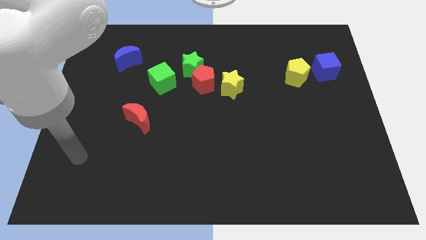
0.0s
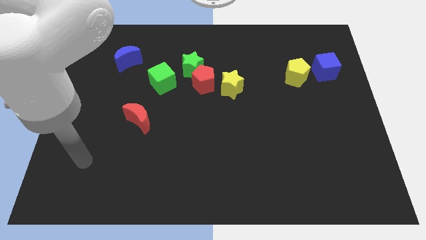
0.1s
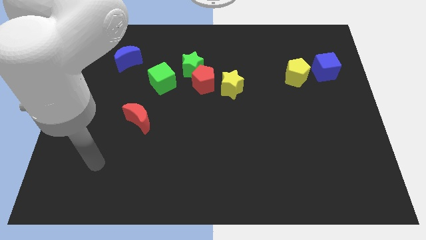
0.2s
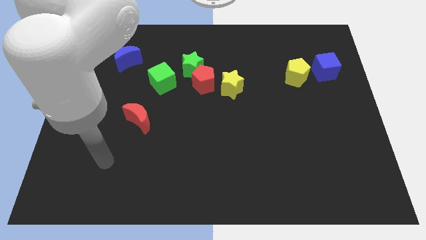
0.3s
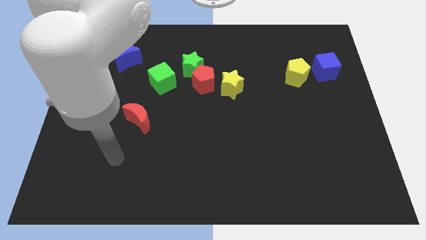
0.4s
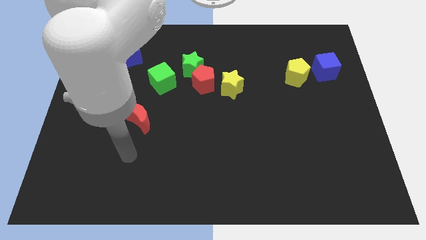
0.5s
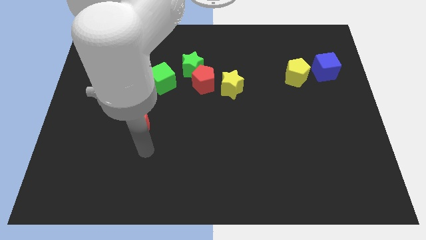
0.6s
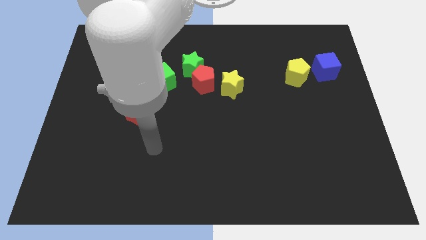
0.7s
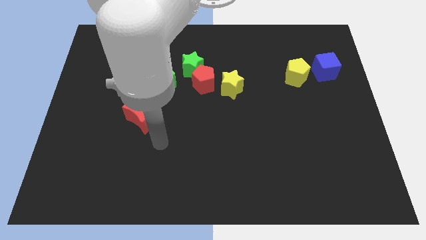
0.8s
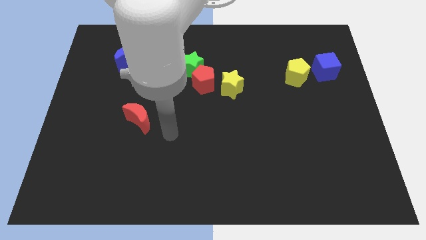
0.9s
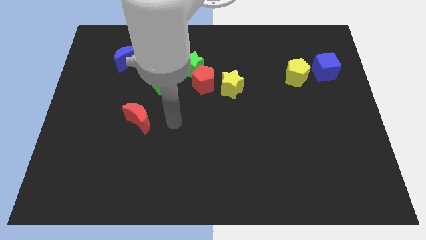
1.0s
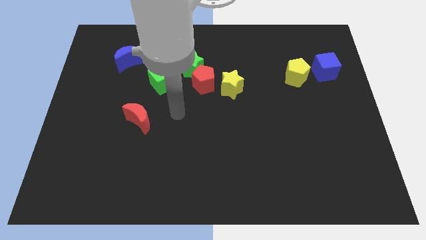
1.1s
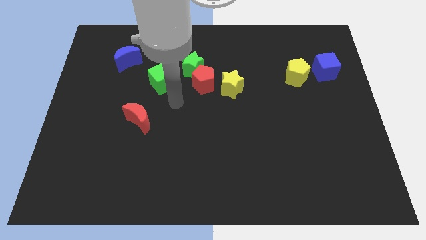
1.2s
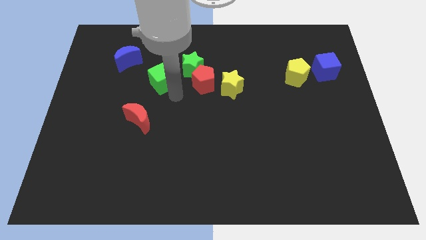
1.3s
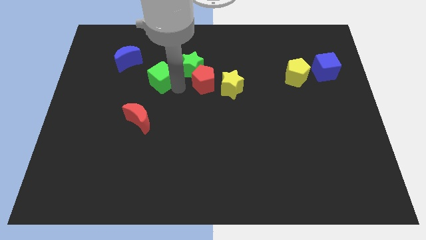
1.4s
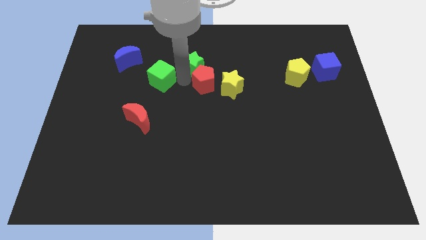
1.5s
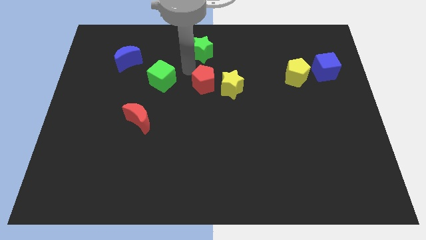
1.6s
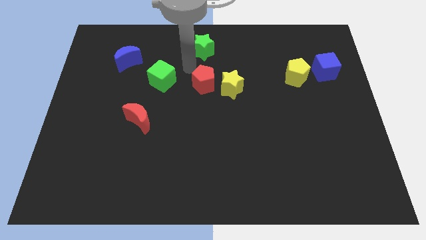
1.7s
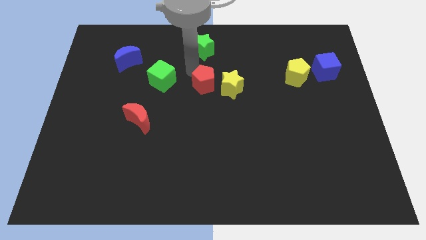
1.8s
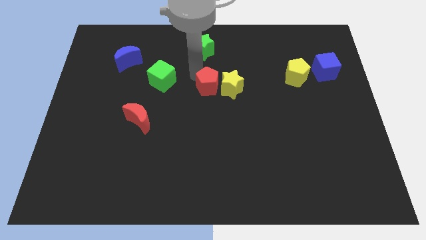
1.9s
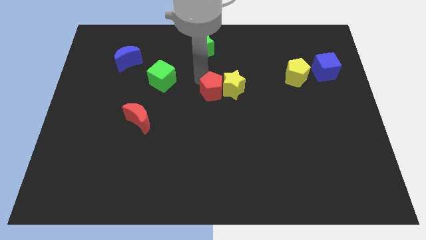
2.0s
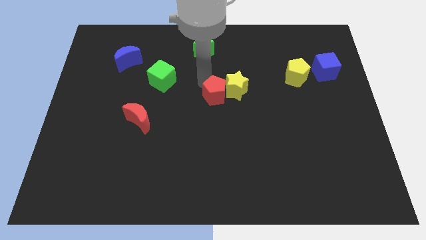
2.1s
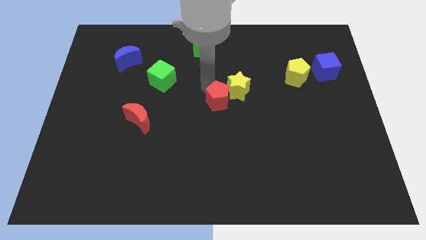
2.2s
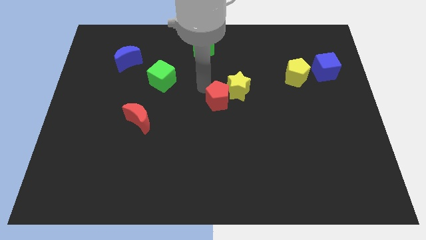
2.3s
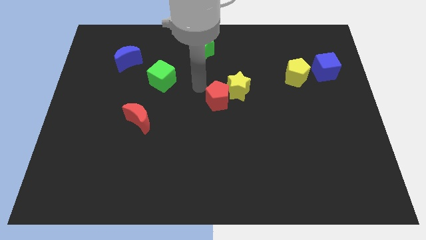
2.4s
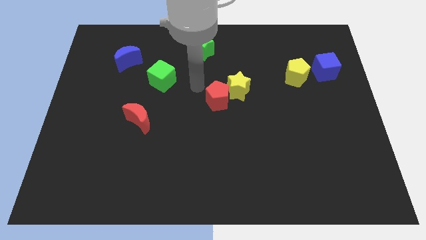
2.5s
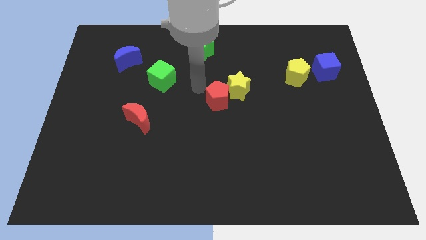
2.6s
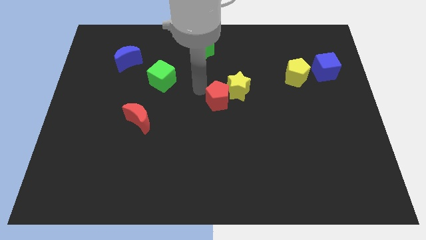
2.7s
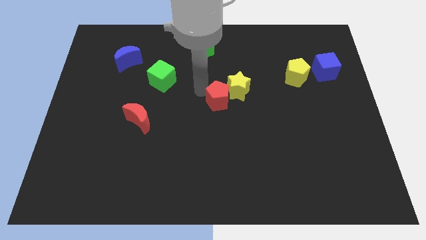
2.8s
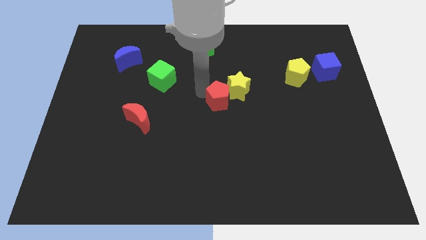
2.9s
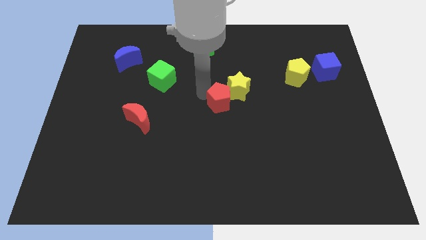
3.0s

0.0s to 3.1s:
slightly push the red pentagon down and right diagonally

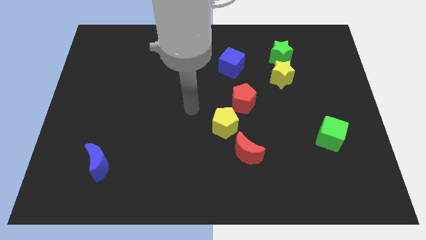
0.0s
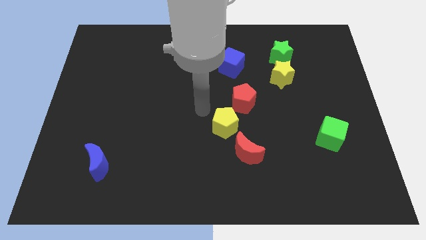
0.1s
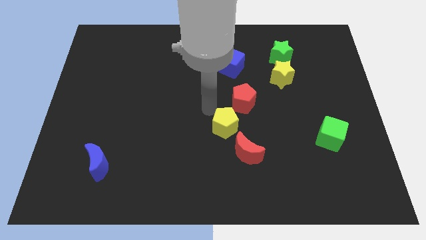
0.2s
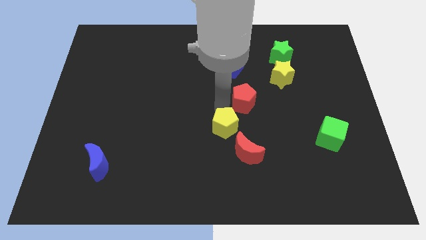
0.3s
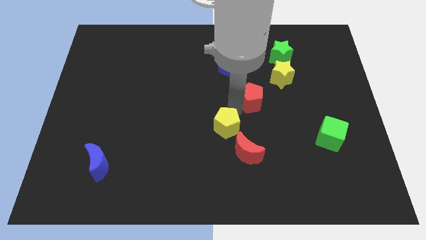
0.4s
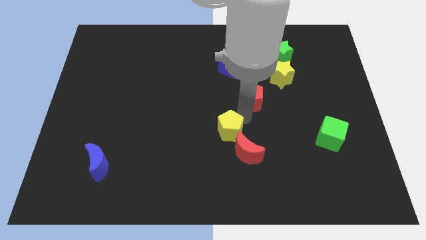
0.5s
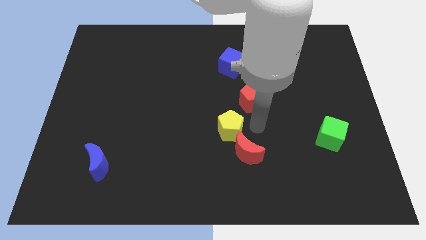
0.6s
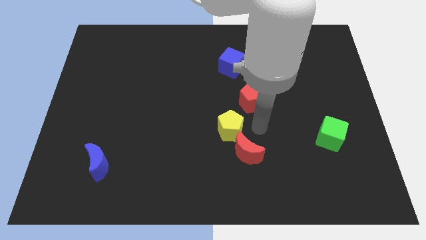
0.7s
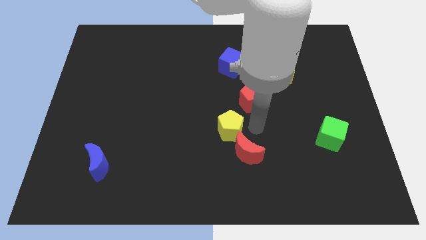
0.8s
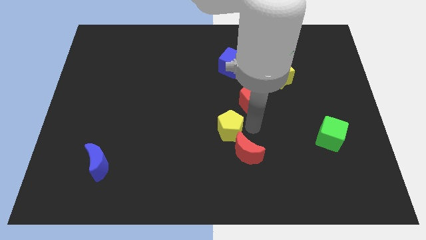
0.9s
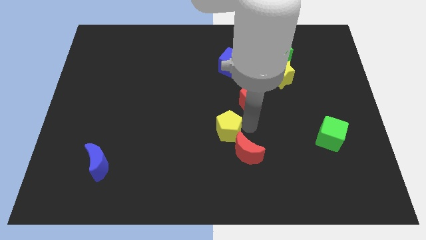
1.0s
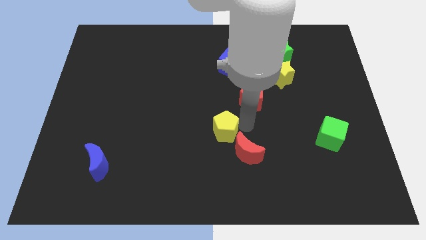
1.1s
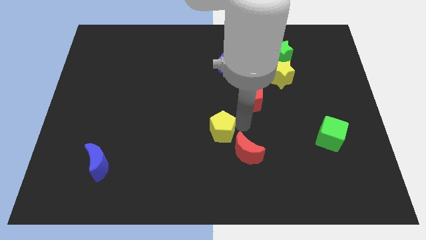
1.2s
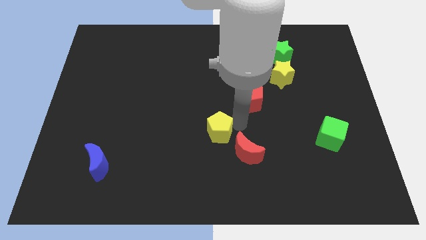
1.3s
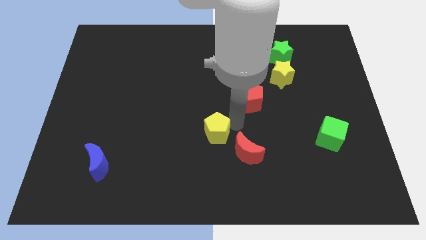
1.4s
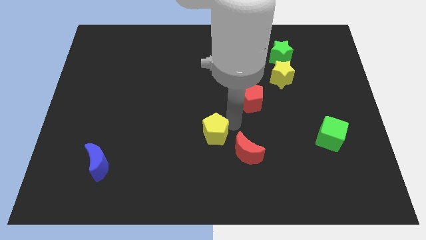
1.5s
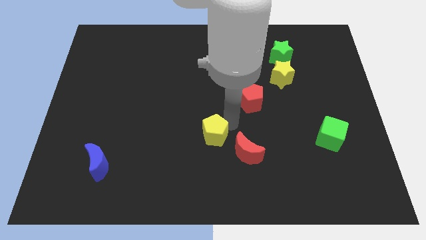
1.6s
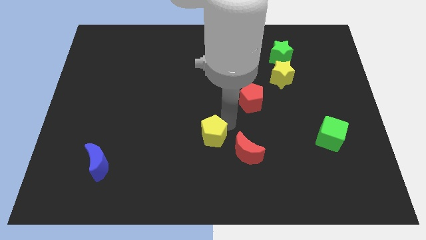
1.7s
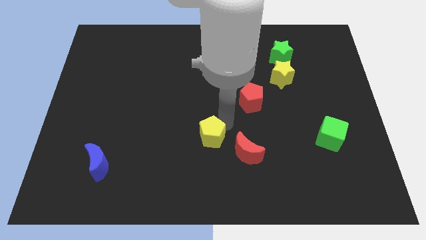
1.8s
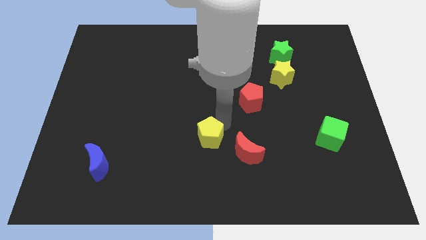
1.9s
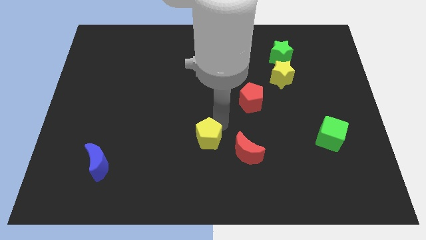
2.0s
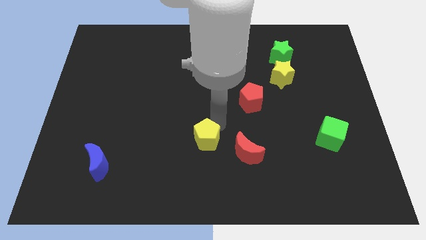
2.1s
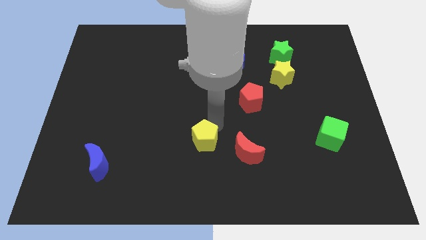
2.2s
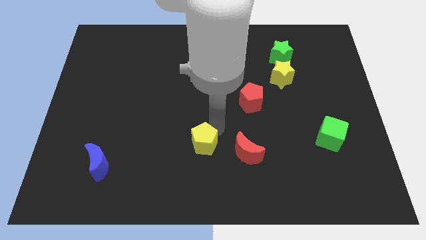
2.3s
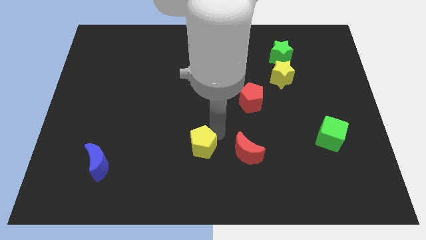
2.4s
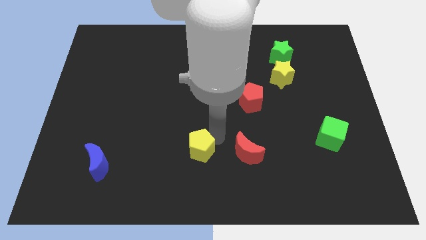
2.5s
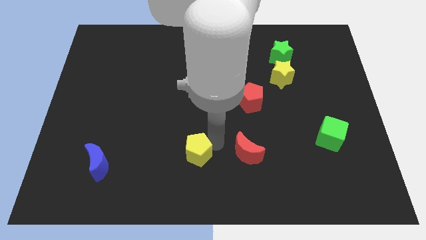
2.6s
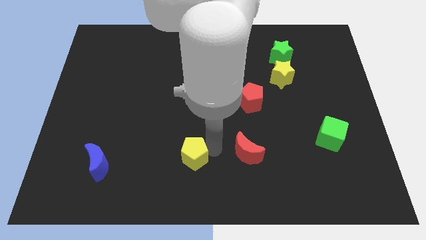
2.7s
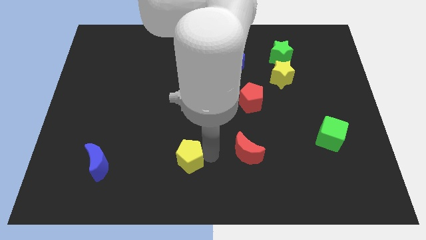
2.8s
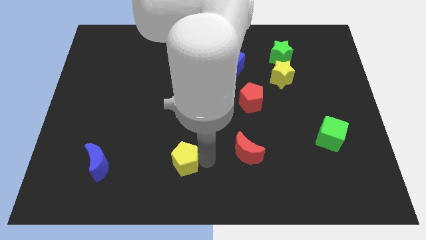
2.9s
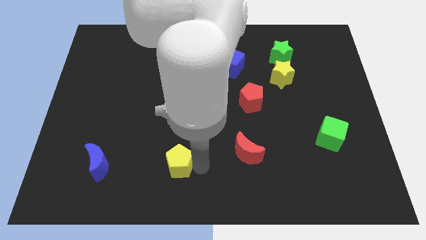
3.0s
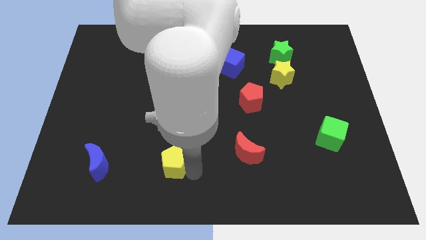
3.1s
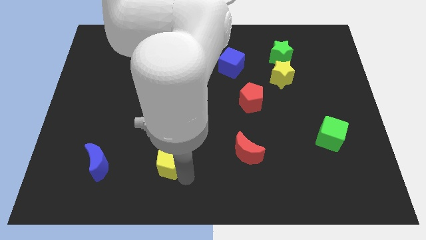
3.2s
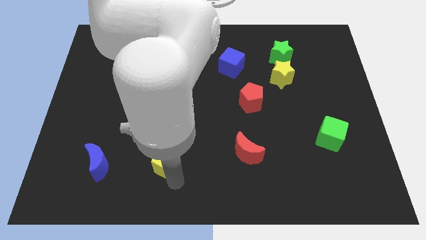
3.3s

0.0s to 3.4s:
push the yellow pentagon to the left a little bit

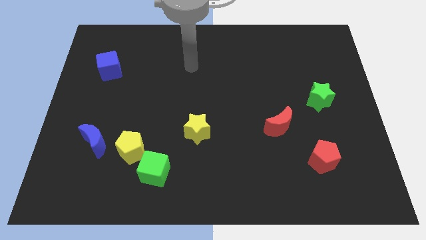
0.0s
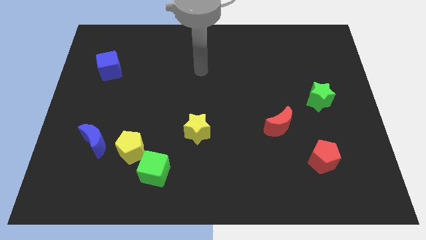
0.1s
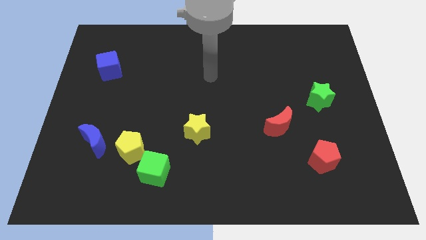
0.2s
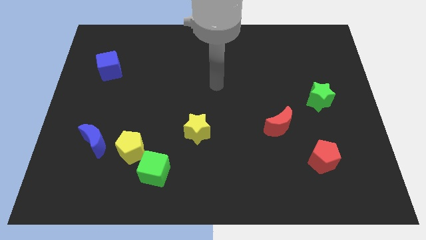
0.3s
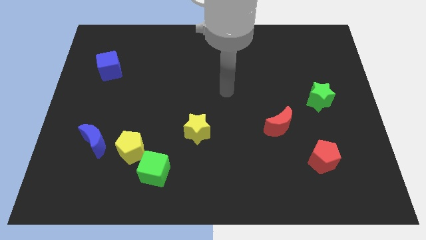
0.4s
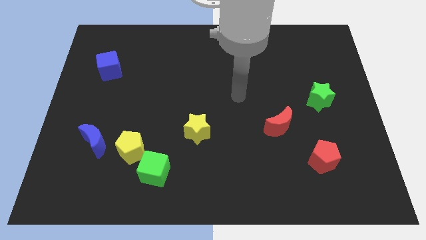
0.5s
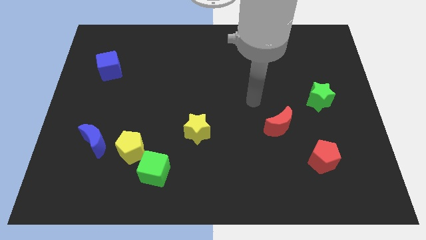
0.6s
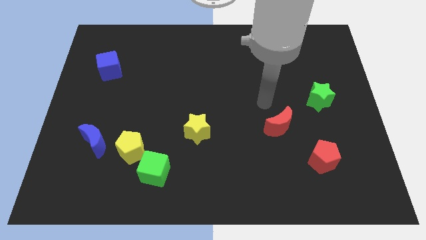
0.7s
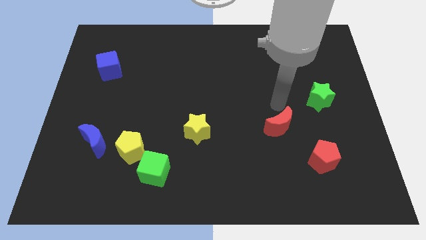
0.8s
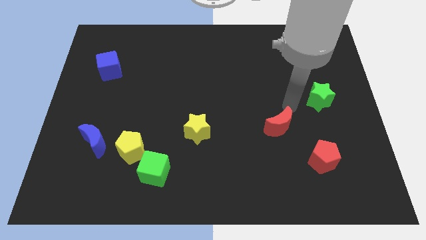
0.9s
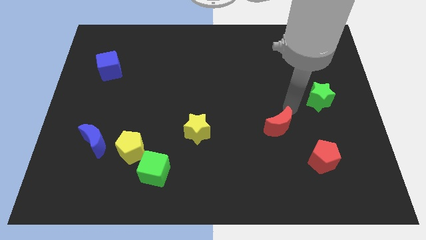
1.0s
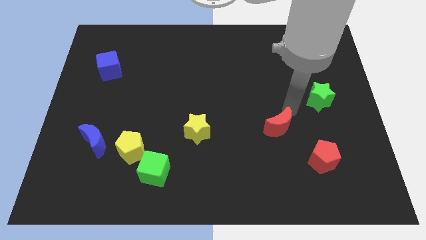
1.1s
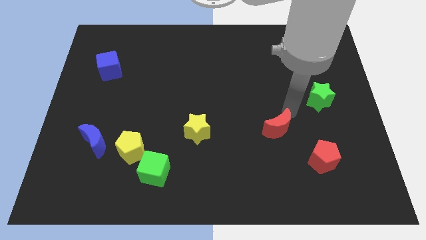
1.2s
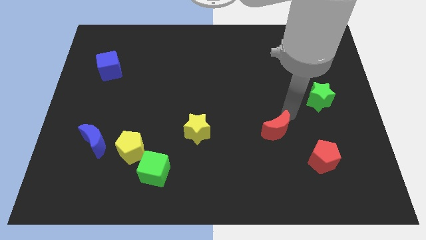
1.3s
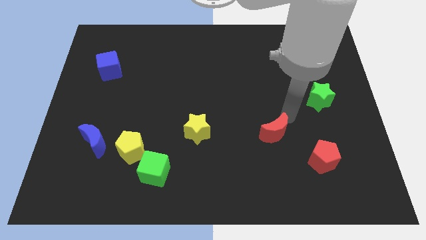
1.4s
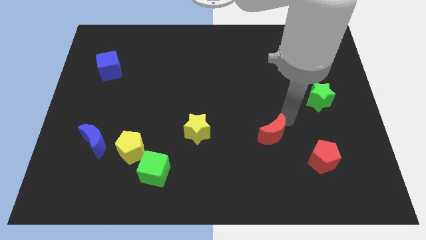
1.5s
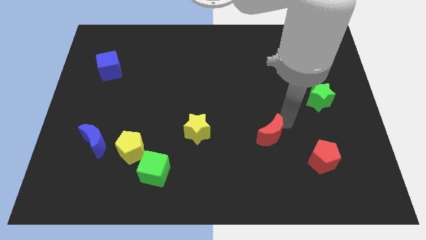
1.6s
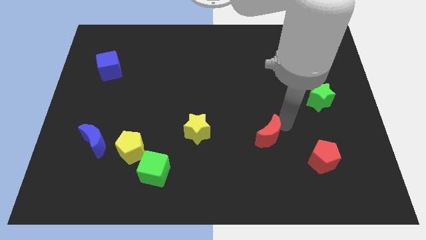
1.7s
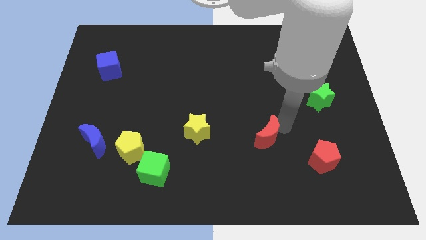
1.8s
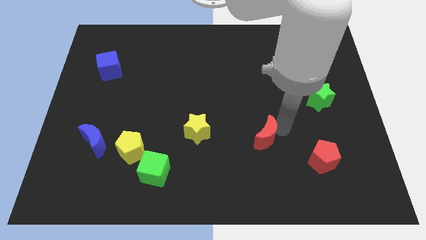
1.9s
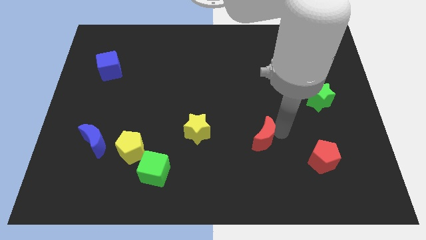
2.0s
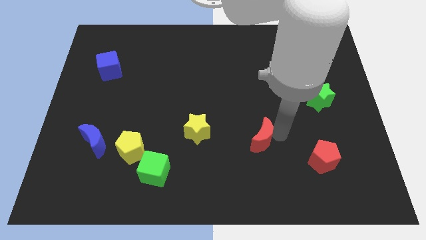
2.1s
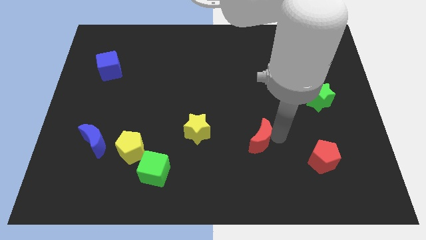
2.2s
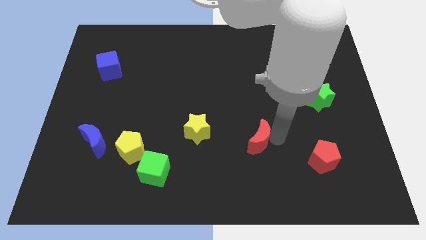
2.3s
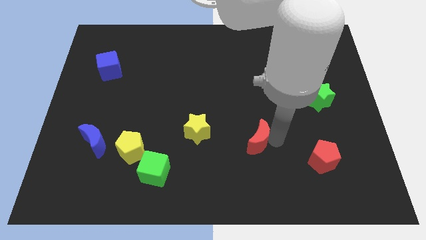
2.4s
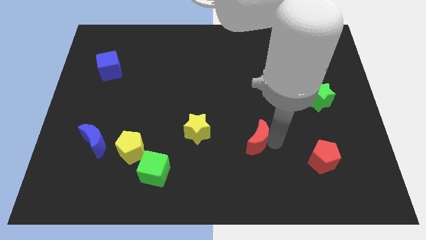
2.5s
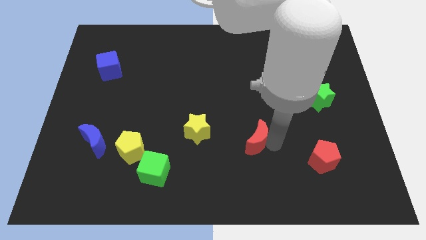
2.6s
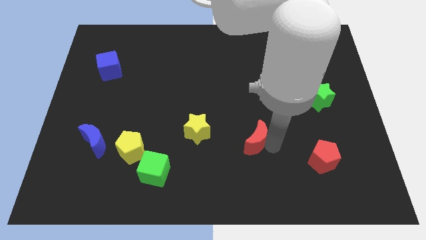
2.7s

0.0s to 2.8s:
slide the red moon slightly diagonally downwards and left
